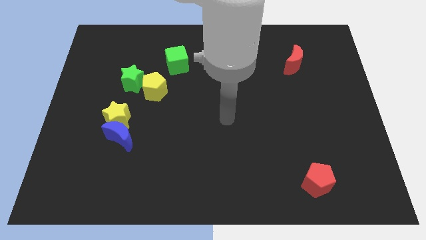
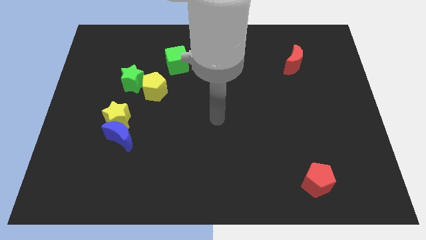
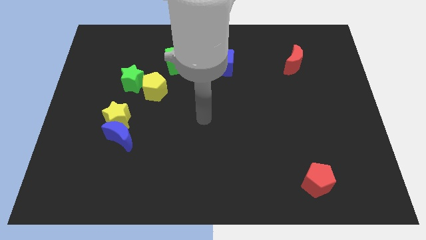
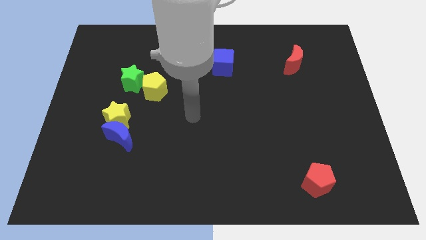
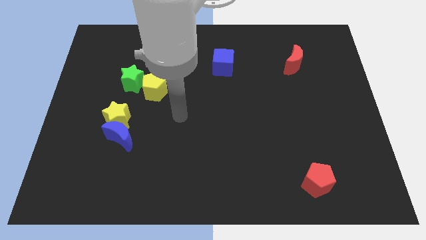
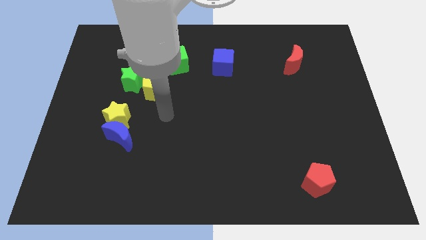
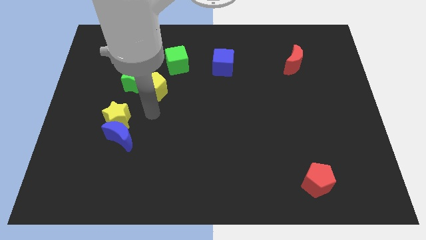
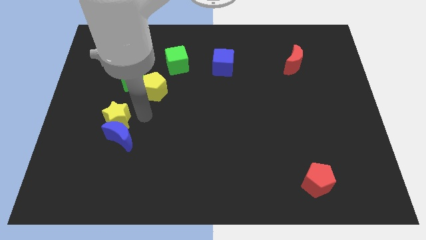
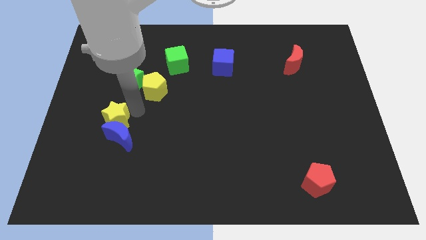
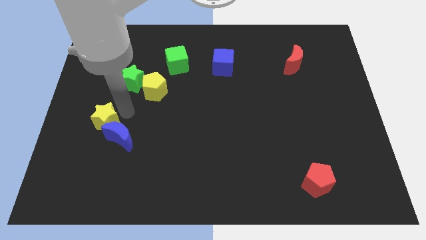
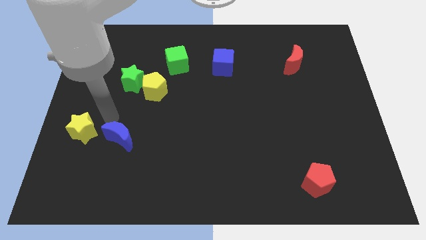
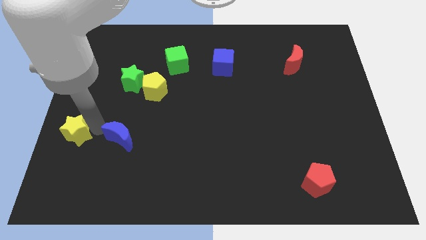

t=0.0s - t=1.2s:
pull the blue moon apart from the yellow star

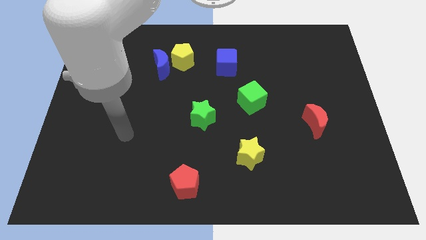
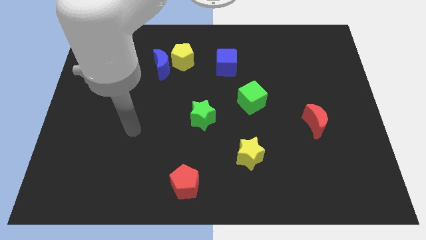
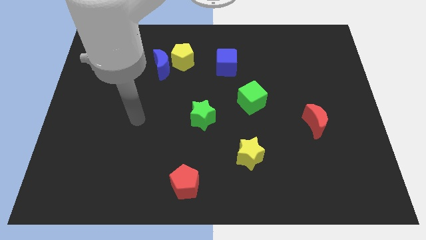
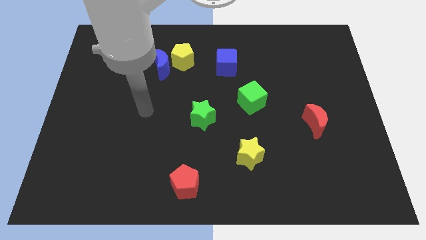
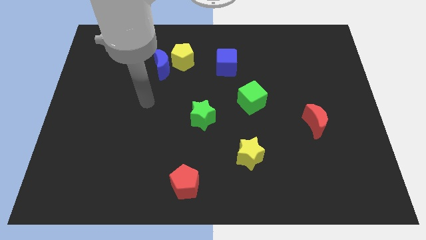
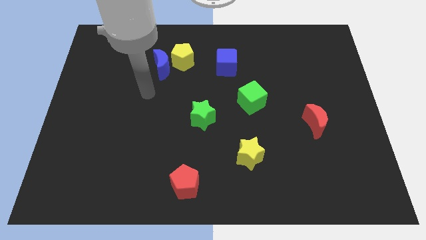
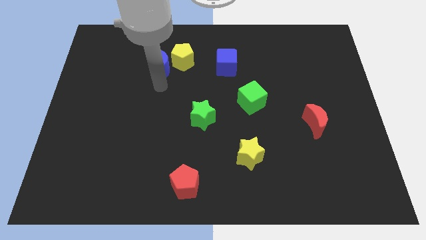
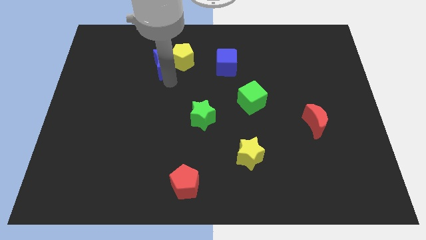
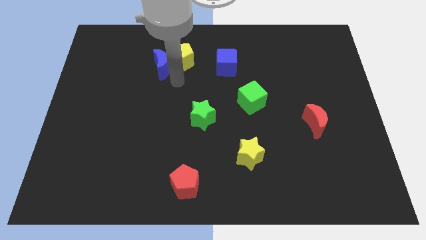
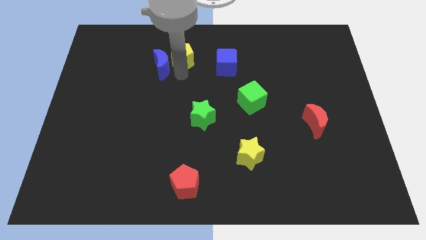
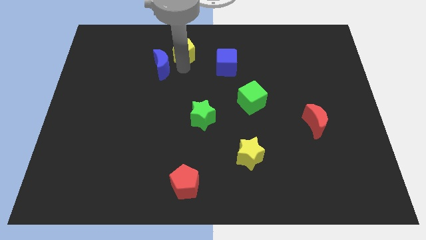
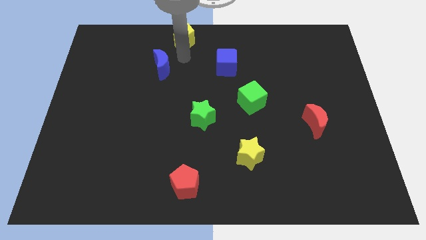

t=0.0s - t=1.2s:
separate the blue moon from the yellow pentagon

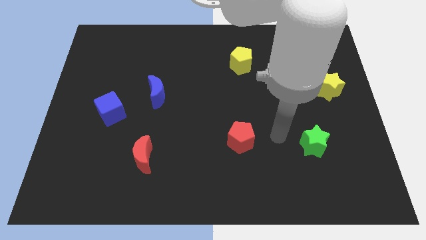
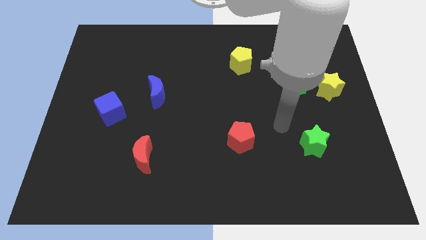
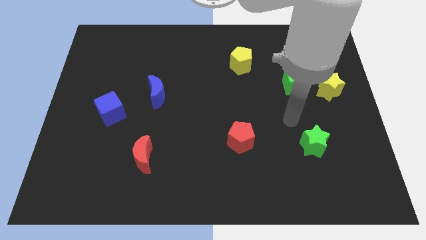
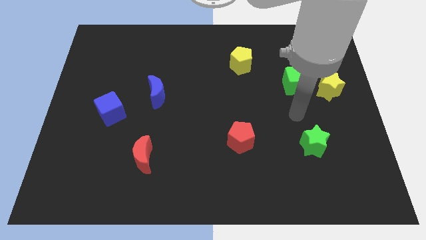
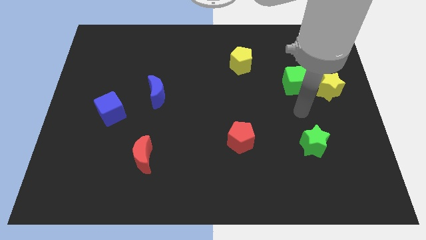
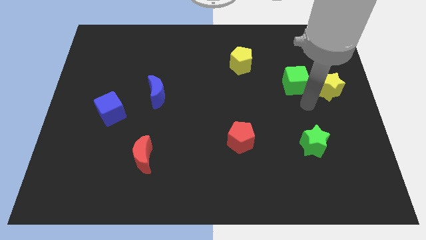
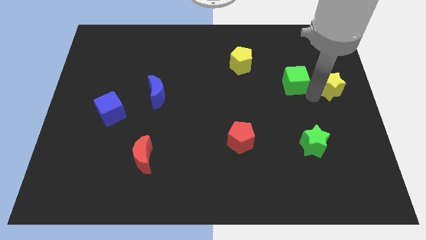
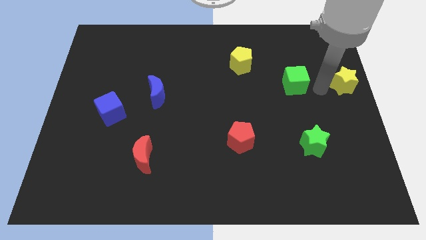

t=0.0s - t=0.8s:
separate the green cube from the yellow star

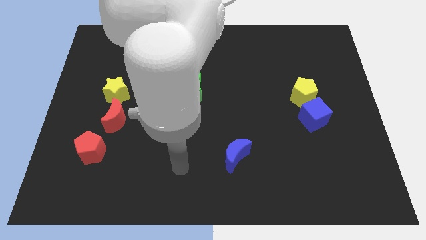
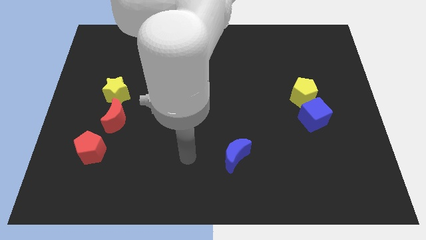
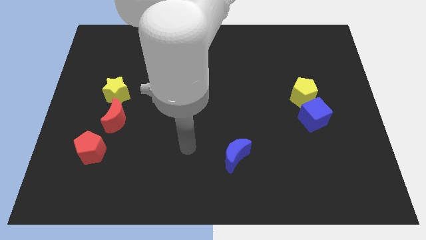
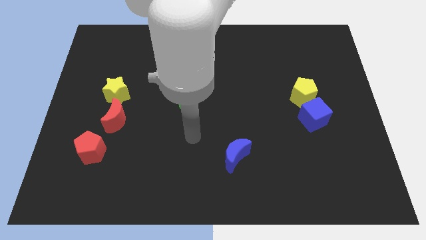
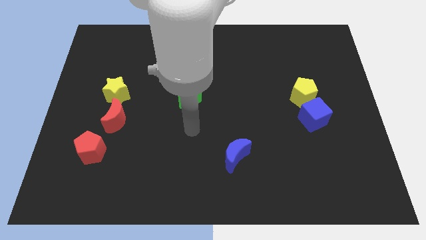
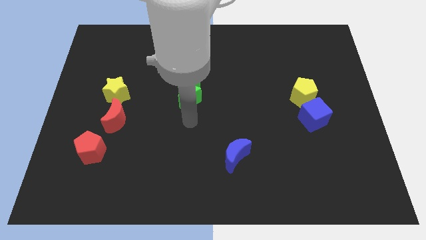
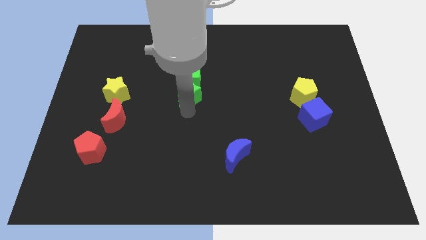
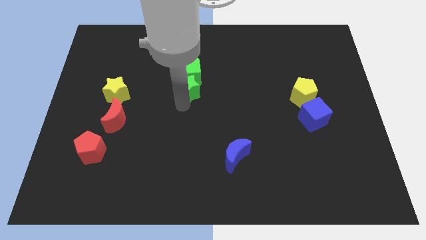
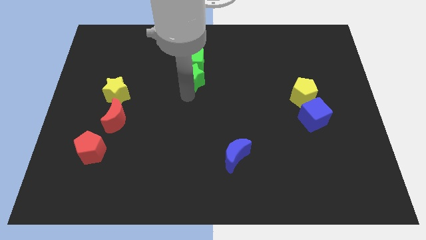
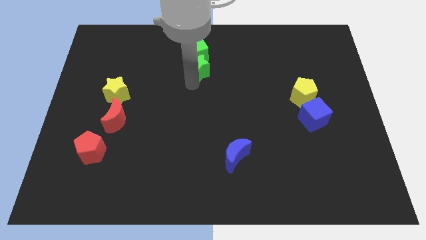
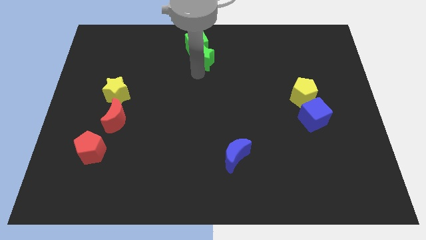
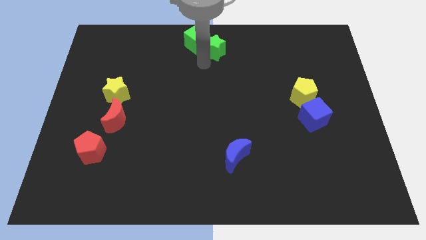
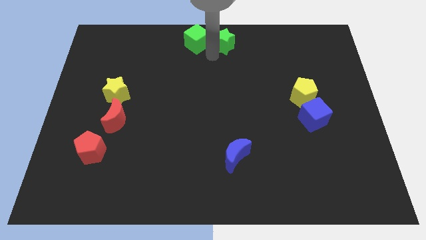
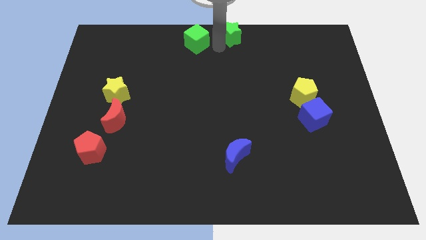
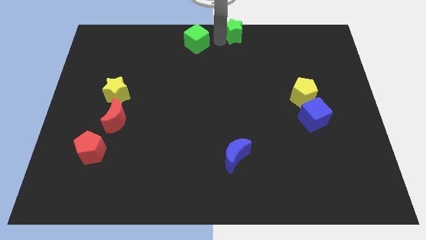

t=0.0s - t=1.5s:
separate the green cube from the green star

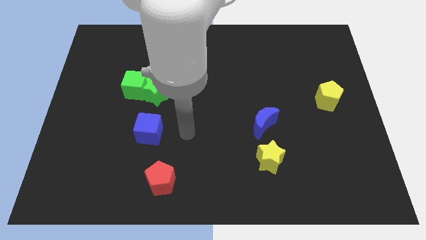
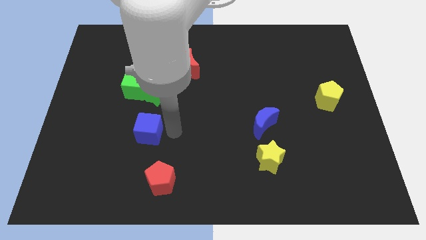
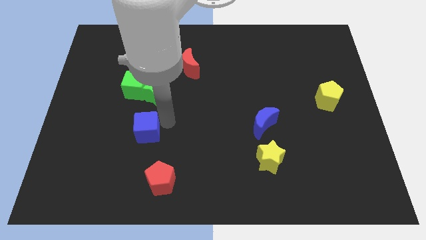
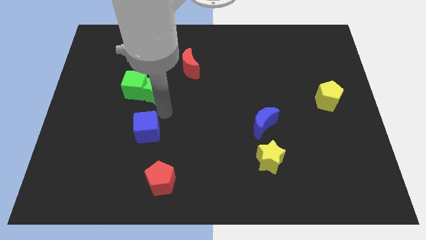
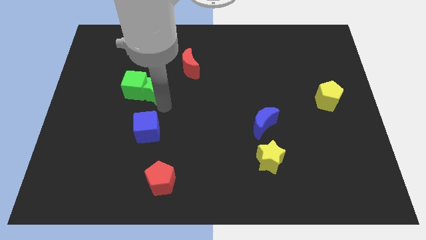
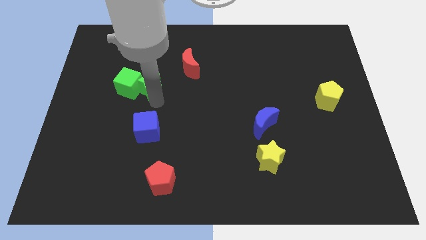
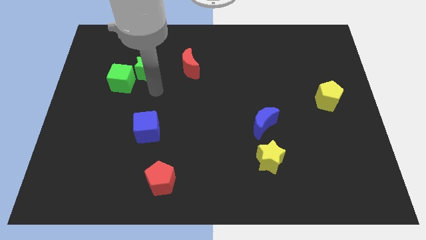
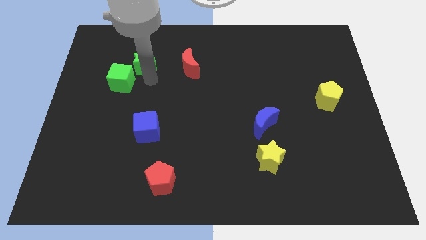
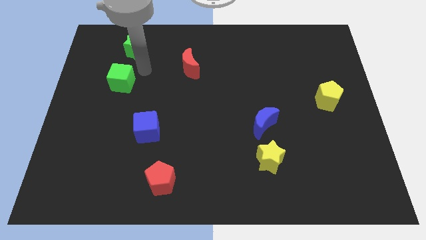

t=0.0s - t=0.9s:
move the green cube away from the green star

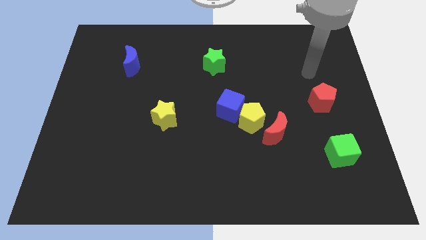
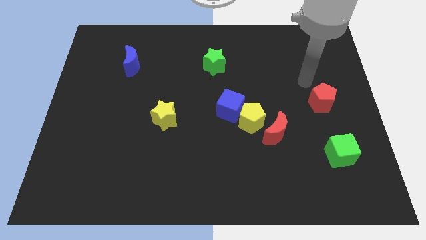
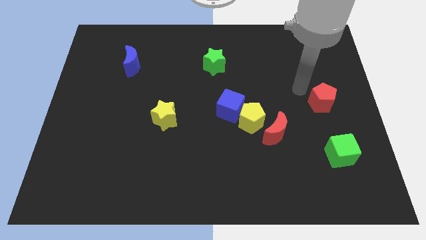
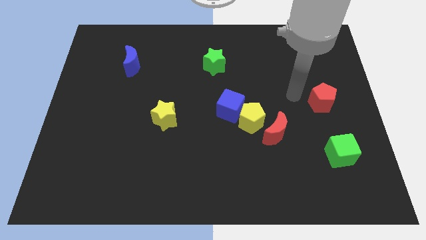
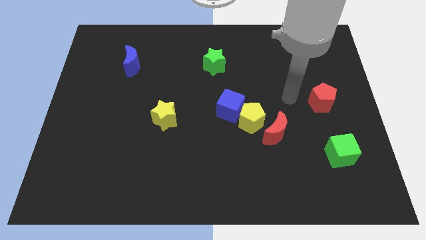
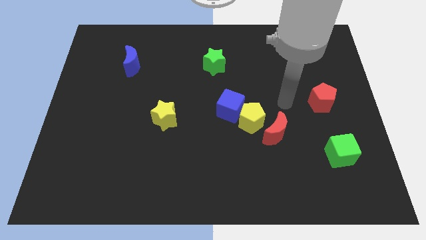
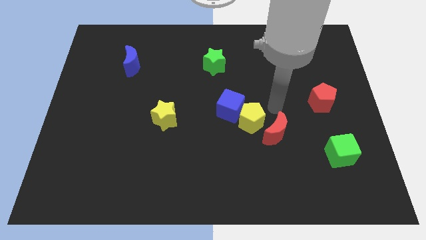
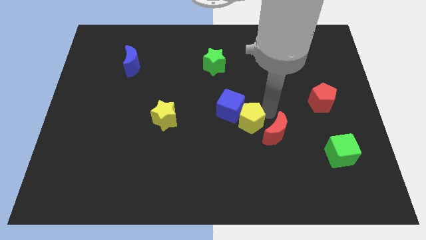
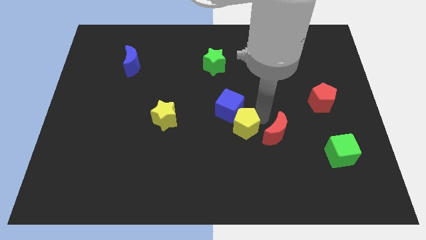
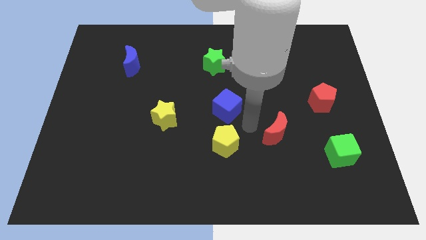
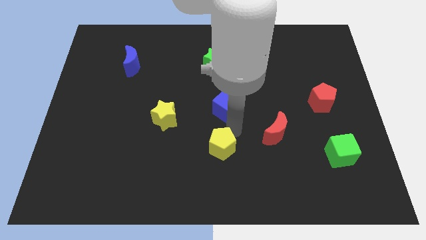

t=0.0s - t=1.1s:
pull the blue cube apart from the yellow pentagon

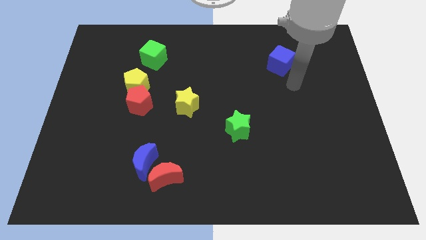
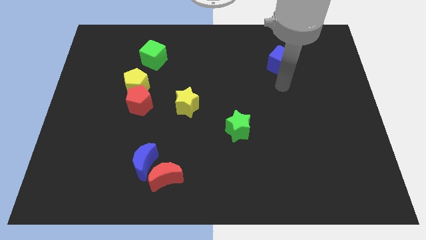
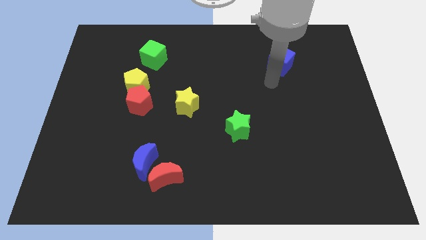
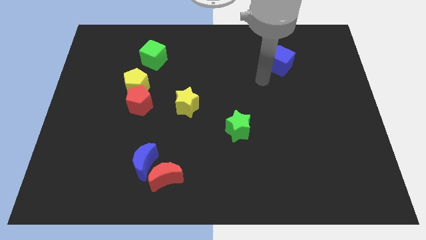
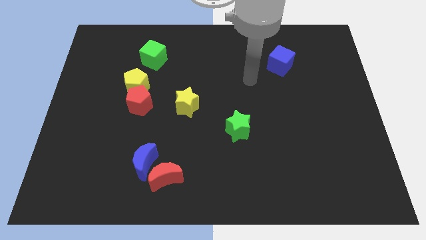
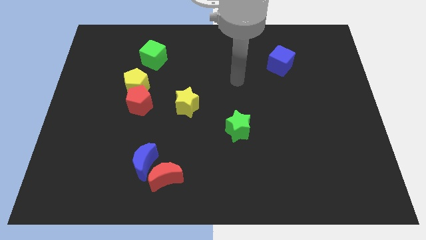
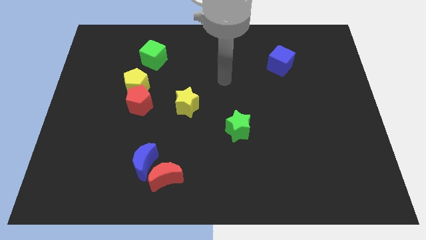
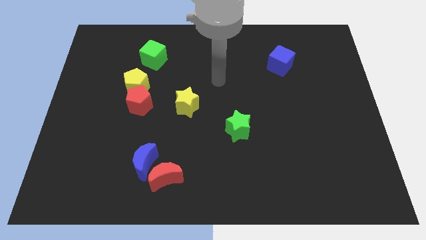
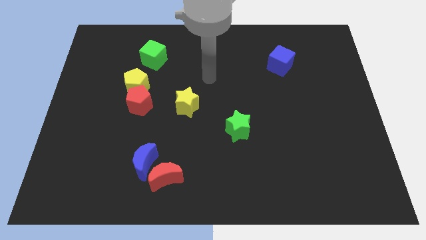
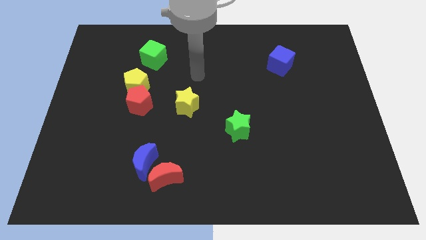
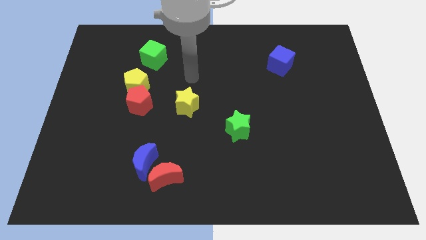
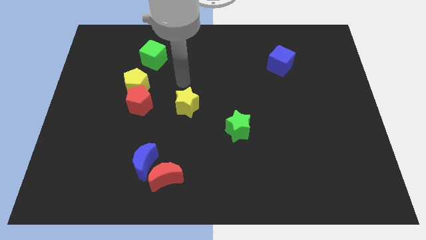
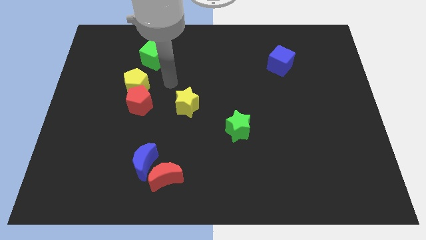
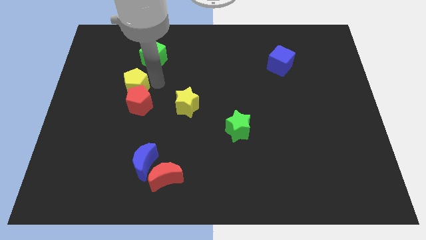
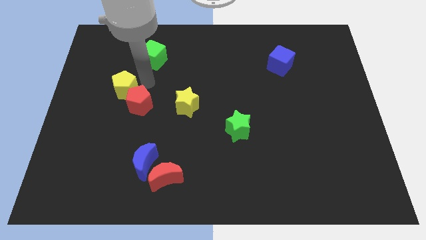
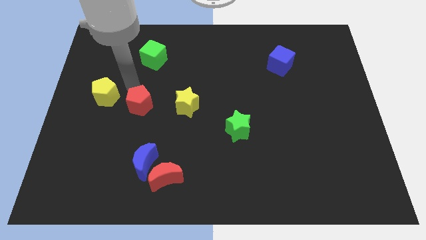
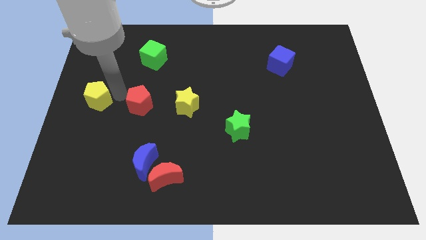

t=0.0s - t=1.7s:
move the red pentagon away from the yellow pentagon

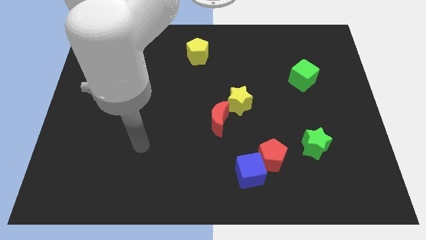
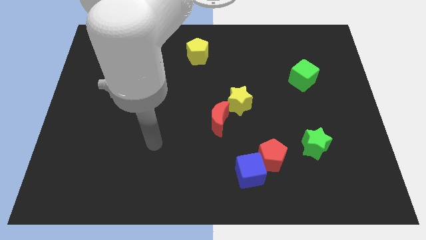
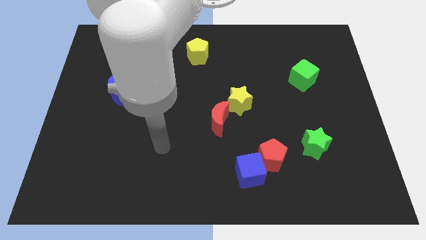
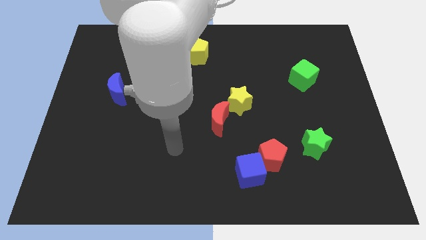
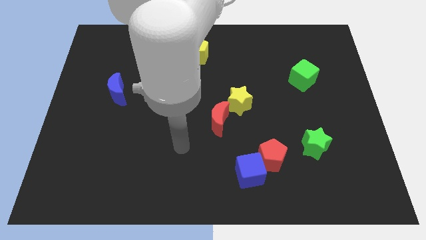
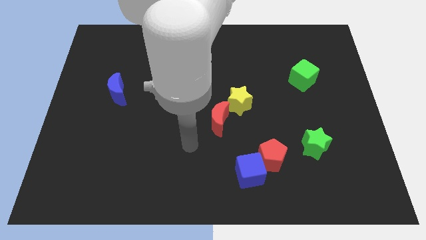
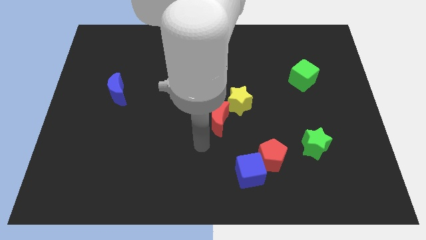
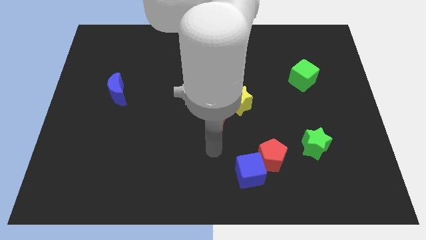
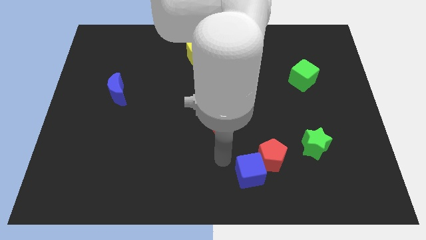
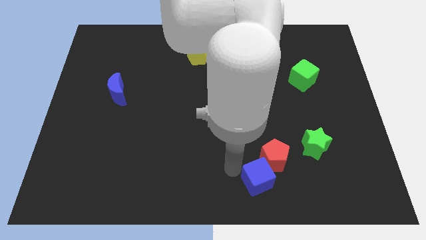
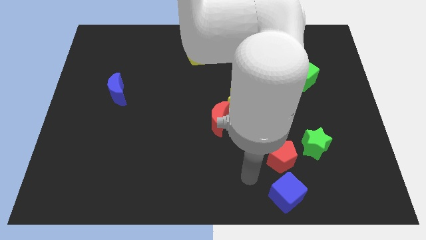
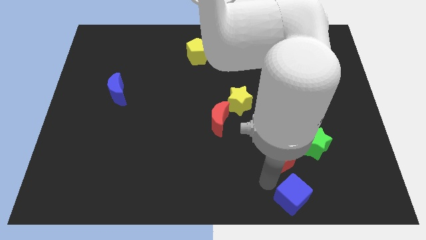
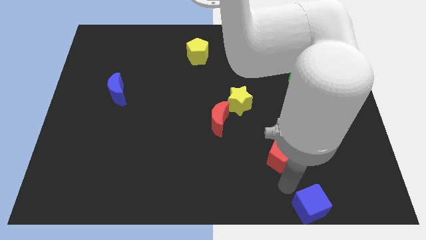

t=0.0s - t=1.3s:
pull the red pentagon apart from the blue cube
